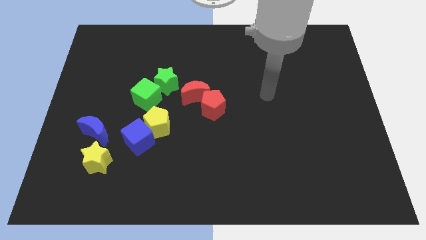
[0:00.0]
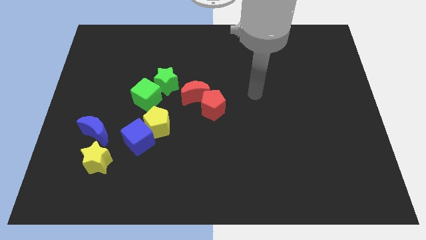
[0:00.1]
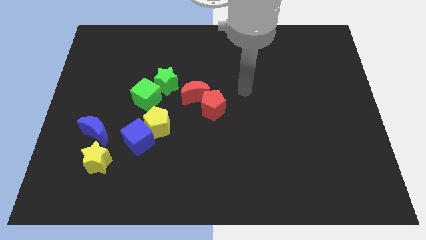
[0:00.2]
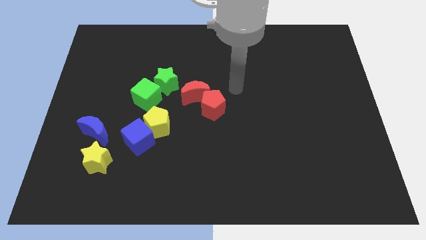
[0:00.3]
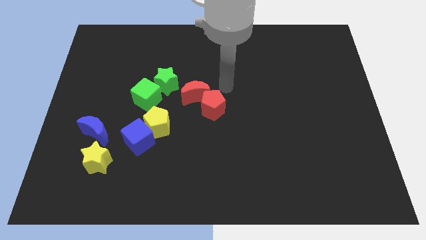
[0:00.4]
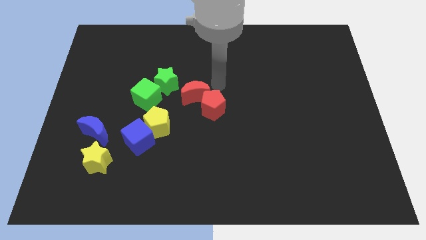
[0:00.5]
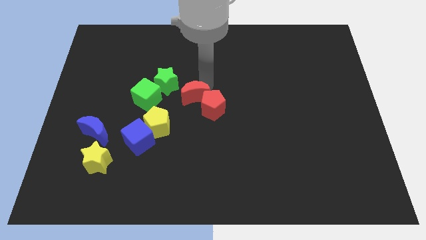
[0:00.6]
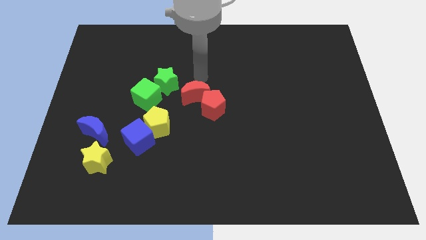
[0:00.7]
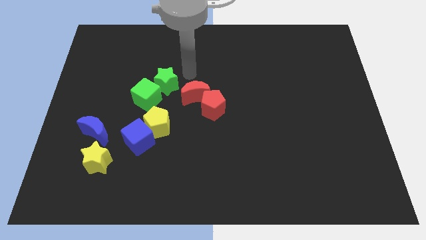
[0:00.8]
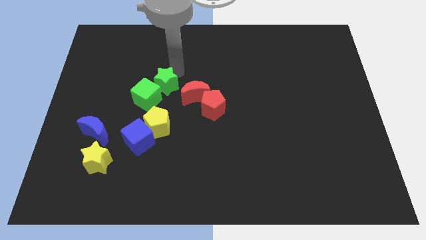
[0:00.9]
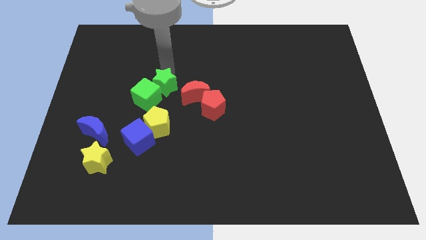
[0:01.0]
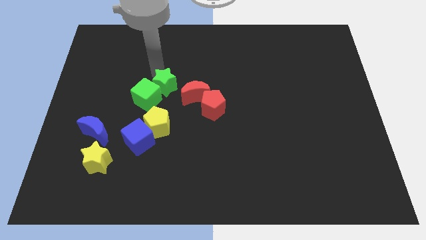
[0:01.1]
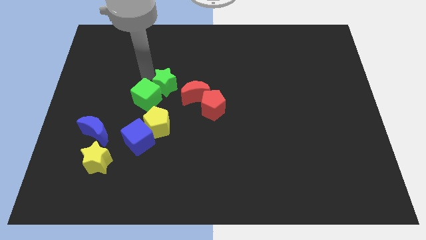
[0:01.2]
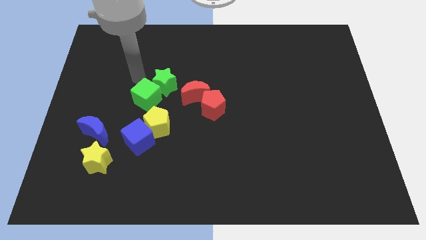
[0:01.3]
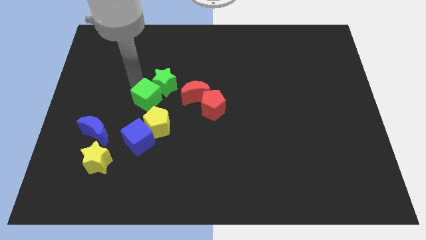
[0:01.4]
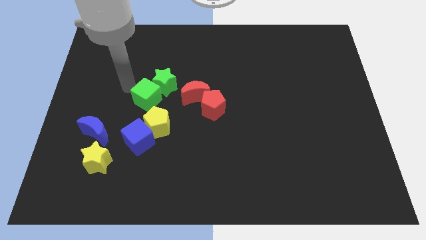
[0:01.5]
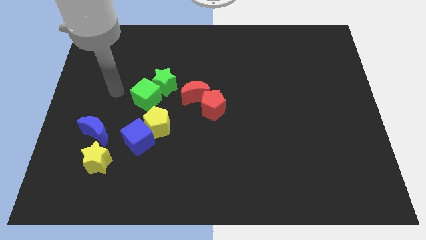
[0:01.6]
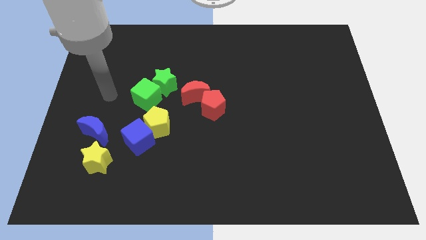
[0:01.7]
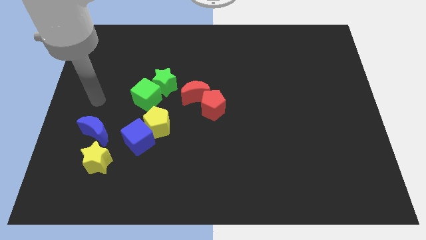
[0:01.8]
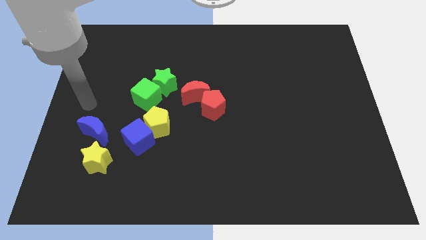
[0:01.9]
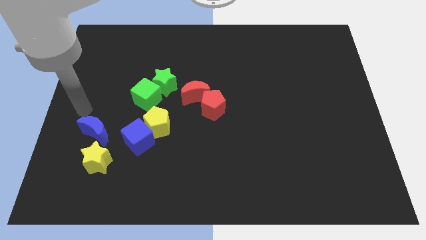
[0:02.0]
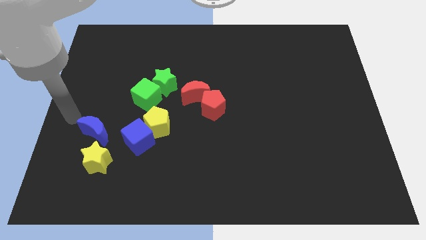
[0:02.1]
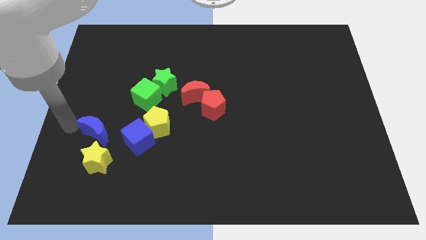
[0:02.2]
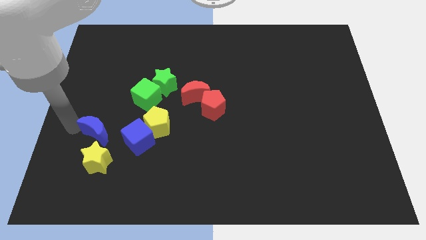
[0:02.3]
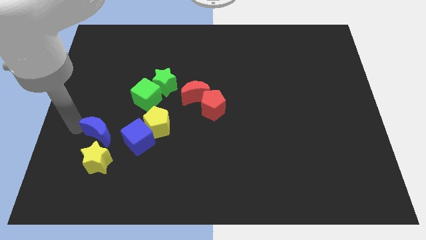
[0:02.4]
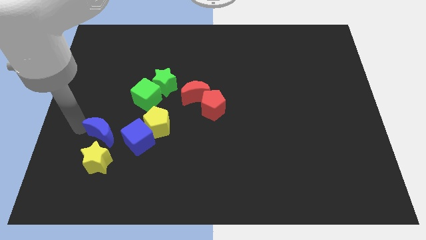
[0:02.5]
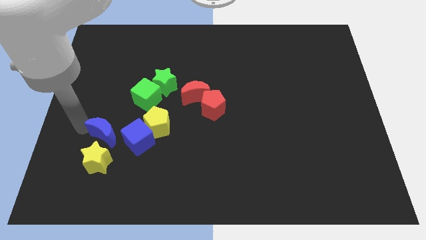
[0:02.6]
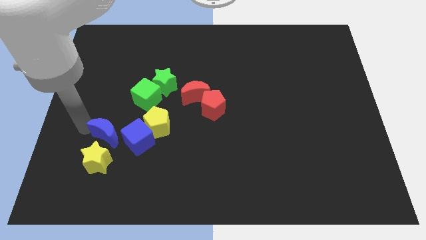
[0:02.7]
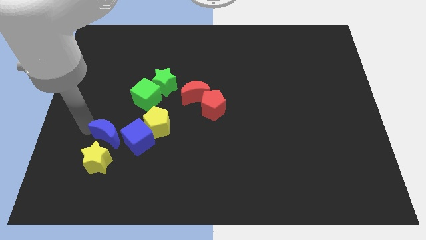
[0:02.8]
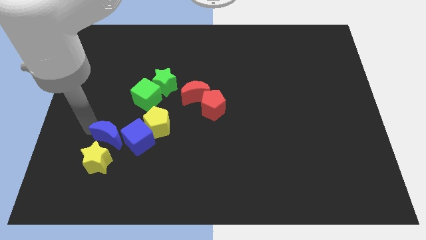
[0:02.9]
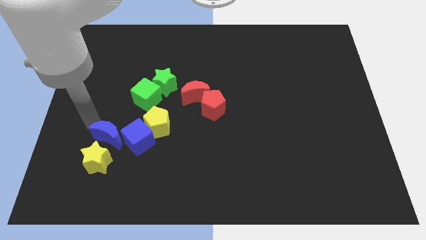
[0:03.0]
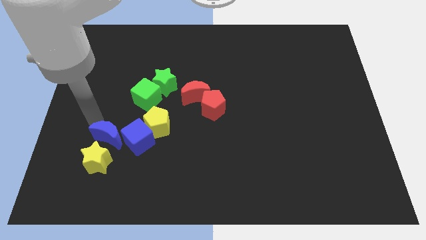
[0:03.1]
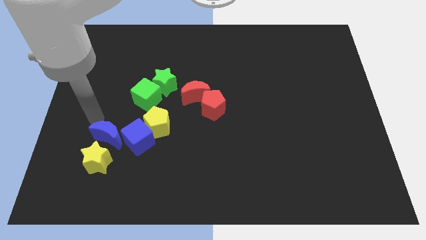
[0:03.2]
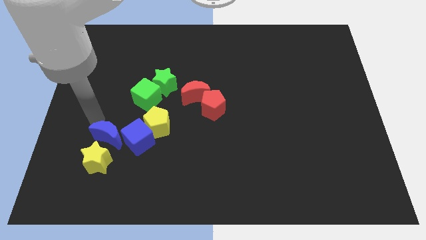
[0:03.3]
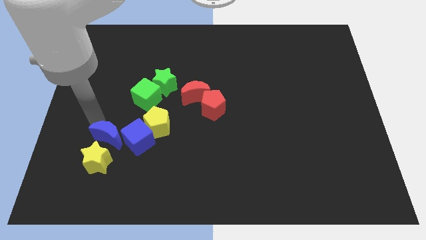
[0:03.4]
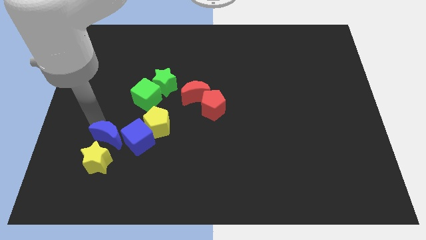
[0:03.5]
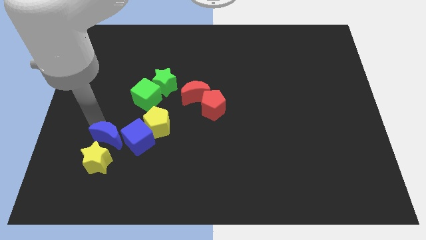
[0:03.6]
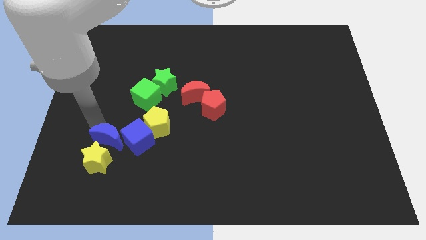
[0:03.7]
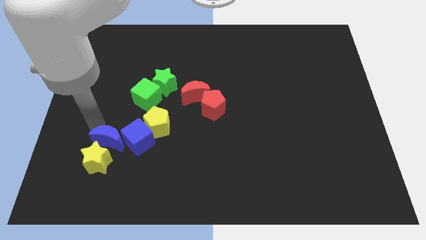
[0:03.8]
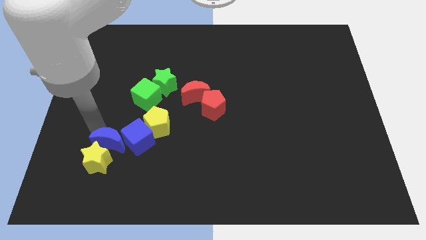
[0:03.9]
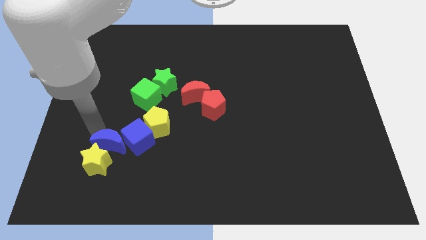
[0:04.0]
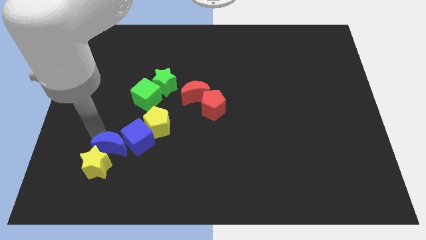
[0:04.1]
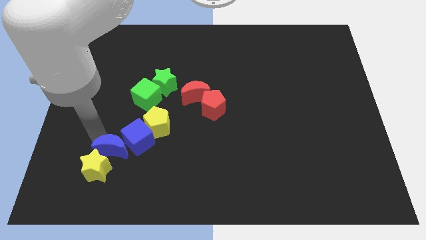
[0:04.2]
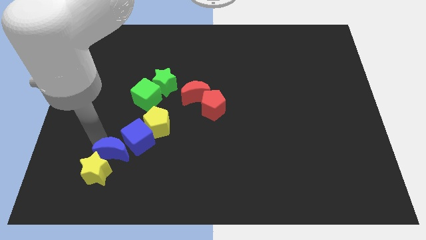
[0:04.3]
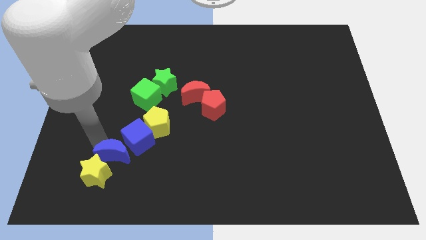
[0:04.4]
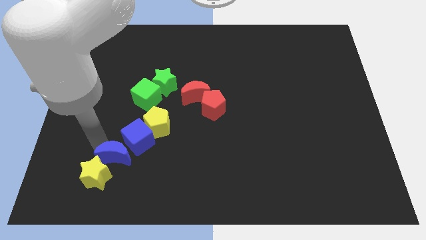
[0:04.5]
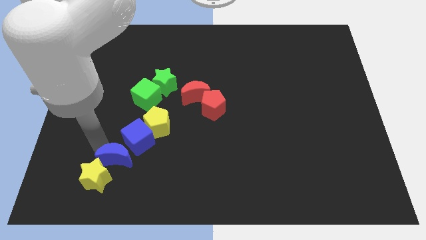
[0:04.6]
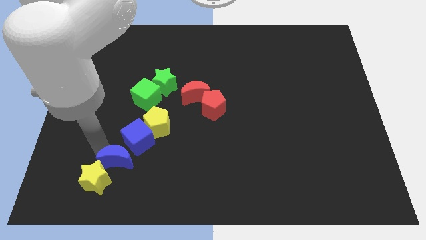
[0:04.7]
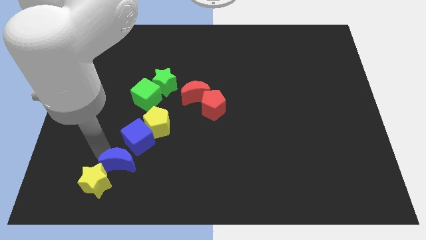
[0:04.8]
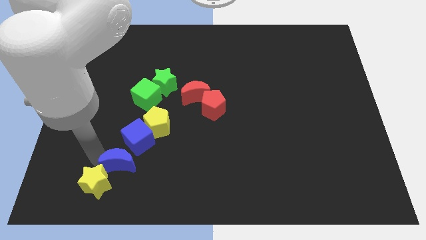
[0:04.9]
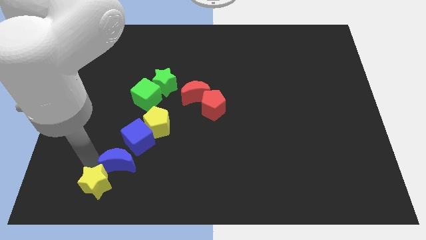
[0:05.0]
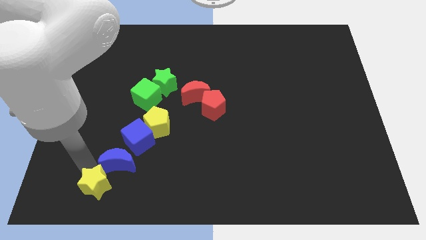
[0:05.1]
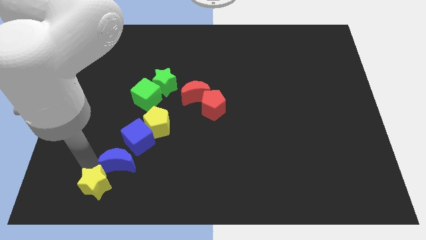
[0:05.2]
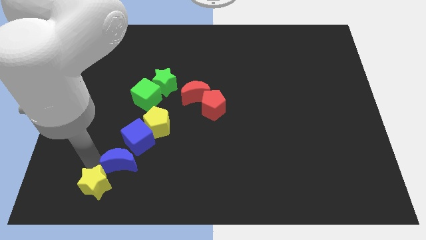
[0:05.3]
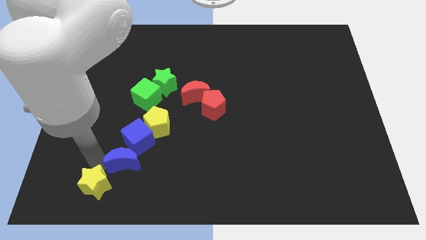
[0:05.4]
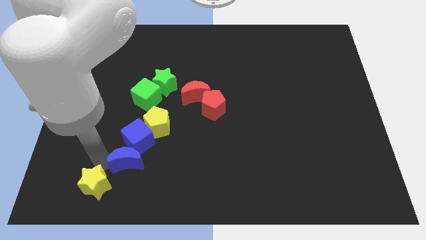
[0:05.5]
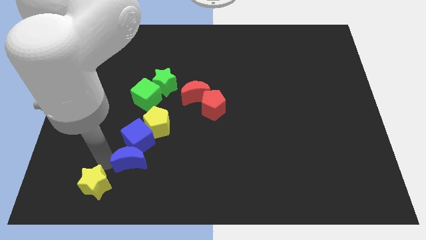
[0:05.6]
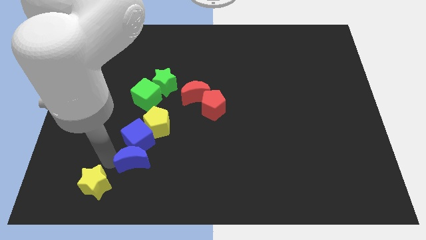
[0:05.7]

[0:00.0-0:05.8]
slide the blue moon a little bit right

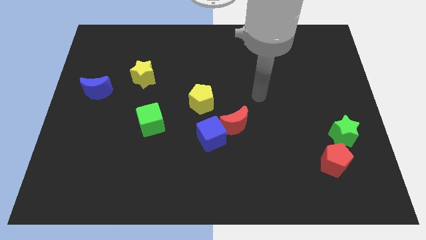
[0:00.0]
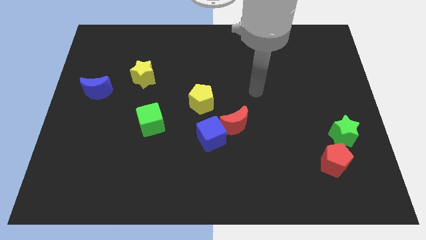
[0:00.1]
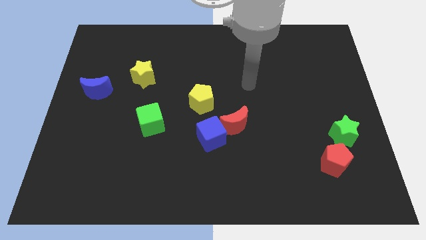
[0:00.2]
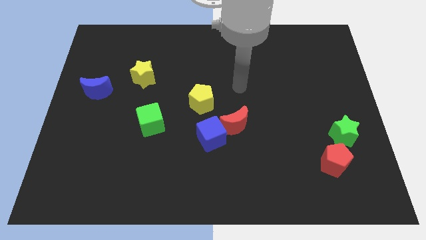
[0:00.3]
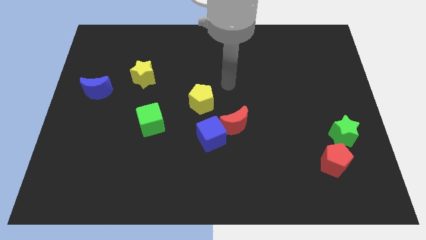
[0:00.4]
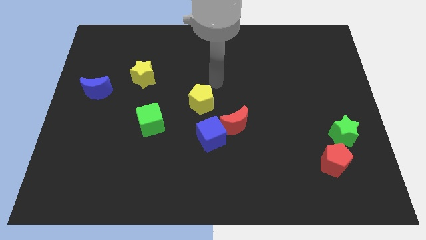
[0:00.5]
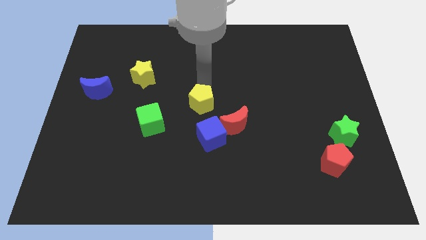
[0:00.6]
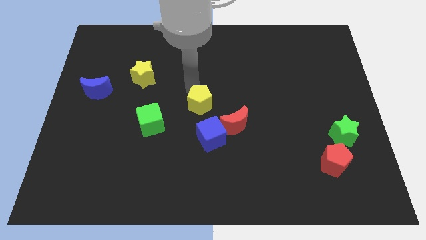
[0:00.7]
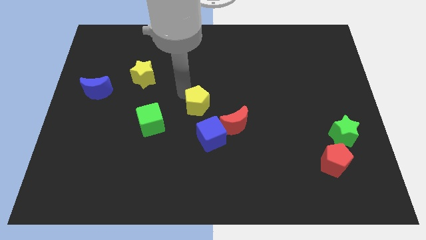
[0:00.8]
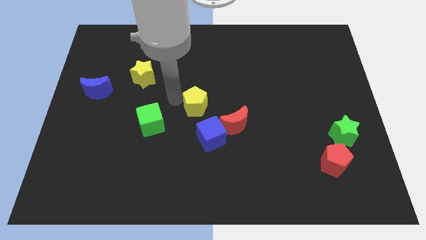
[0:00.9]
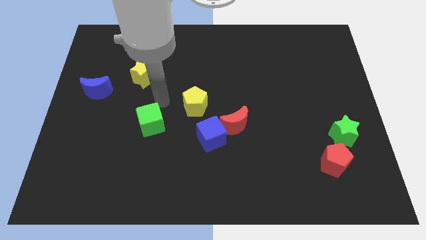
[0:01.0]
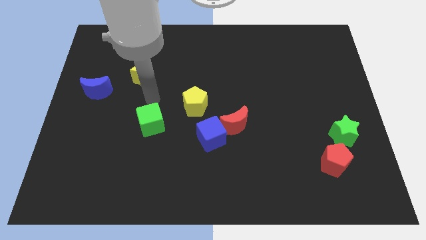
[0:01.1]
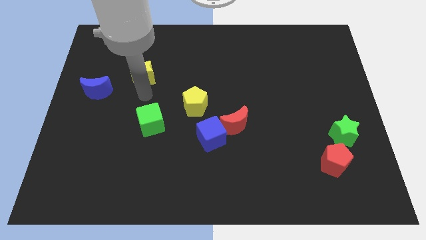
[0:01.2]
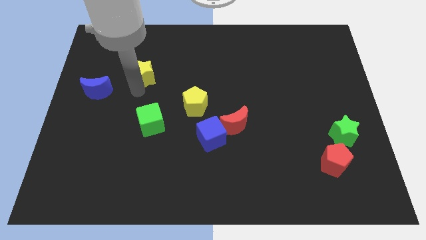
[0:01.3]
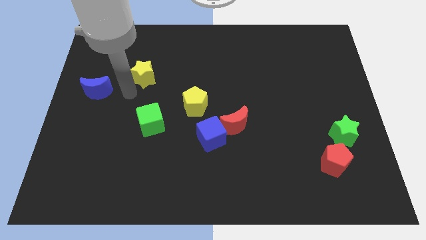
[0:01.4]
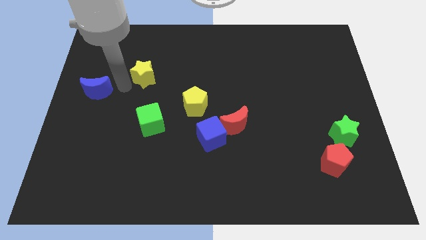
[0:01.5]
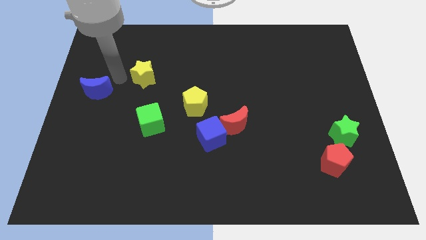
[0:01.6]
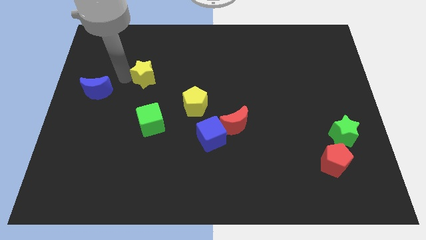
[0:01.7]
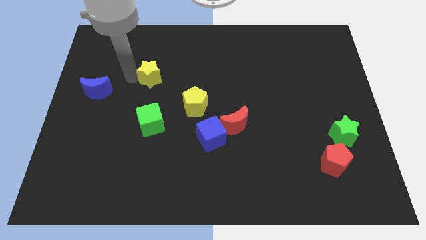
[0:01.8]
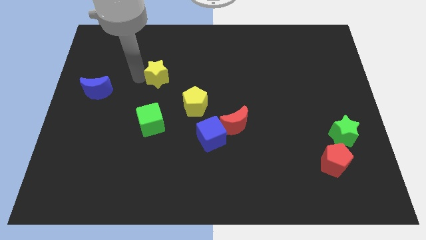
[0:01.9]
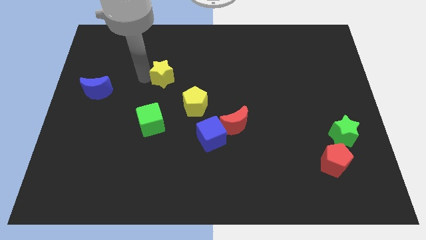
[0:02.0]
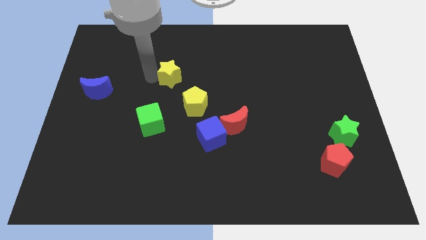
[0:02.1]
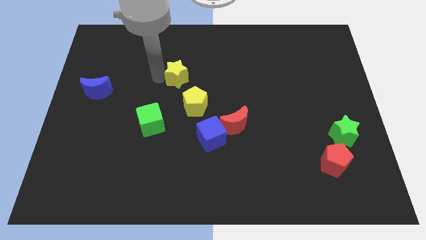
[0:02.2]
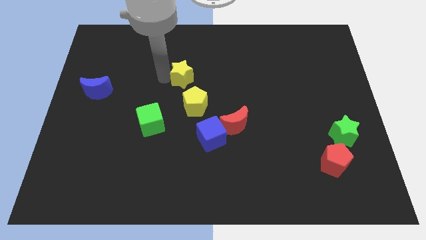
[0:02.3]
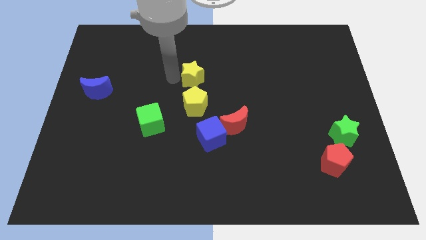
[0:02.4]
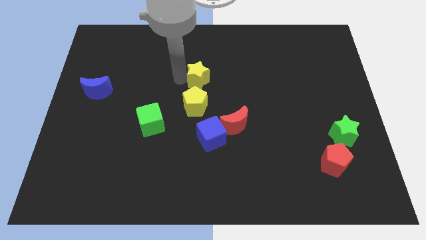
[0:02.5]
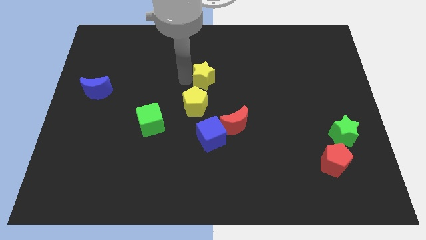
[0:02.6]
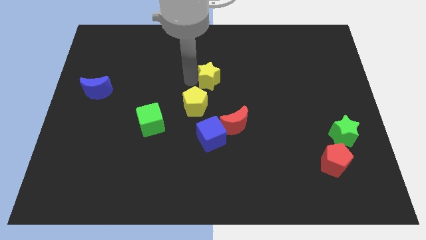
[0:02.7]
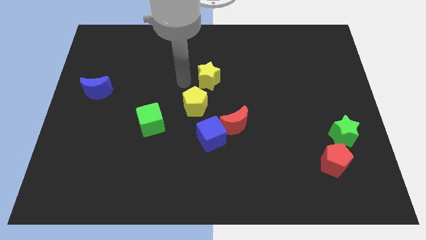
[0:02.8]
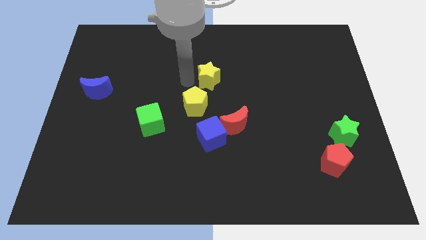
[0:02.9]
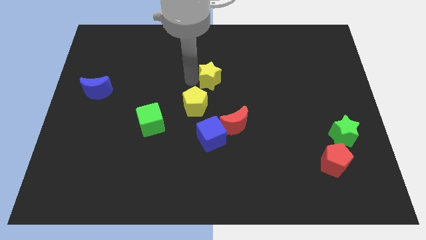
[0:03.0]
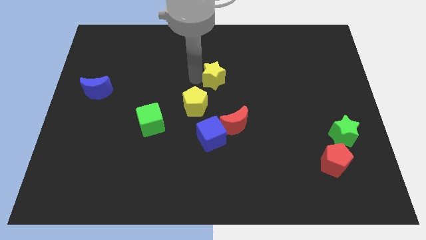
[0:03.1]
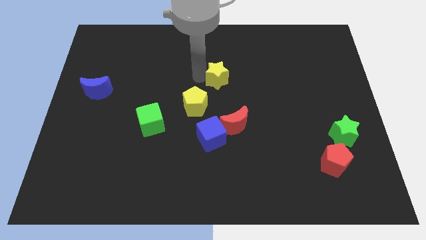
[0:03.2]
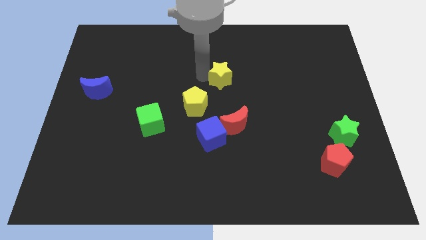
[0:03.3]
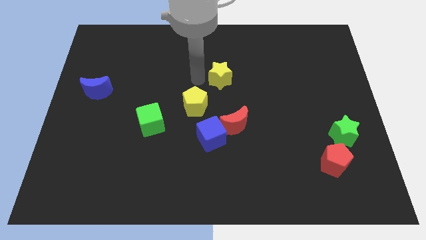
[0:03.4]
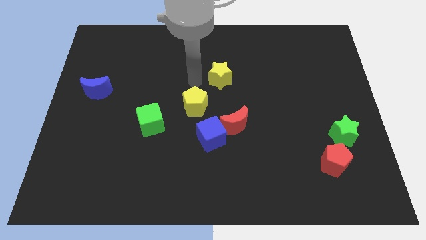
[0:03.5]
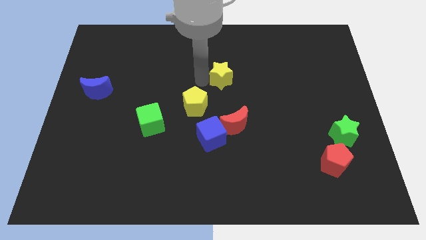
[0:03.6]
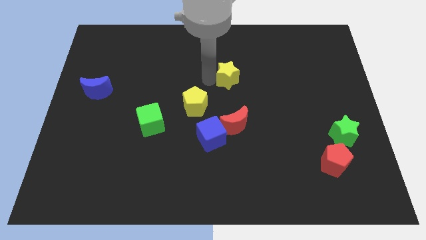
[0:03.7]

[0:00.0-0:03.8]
move the yellow star right
